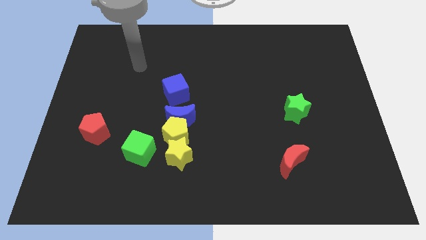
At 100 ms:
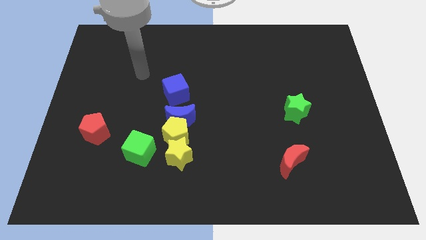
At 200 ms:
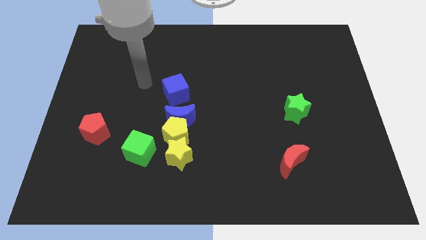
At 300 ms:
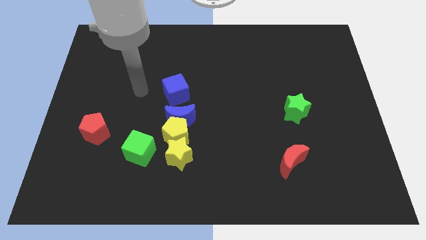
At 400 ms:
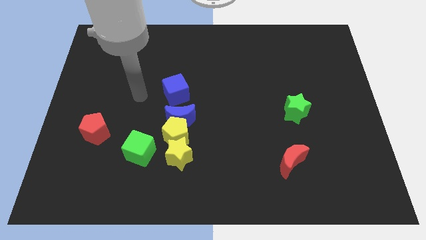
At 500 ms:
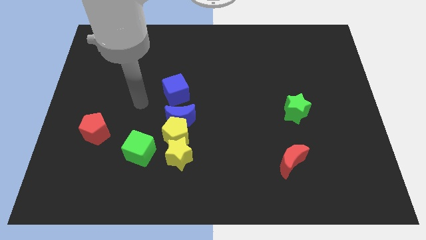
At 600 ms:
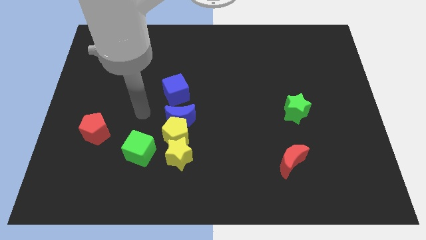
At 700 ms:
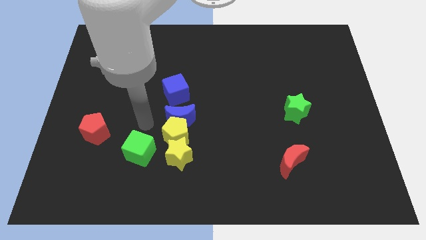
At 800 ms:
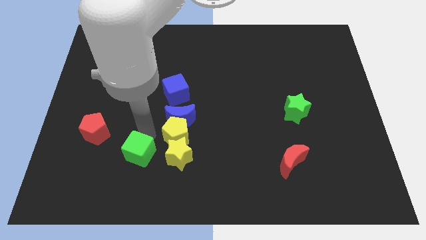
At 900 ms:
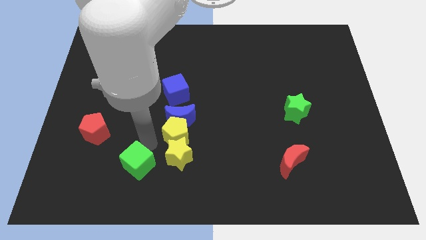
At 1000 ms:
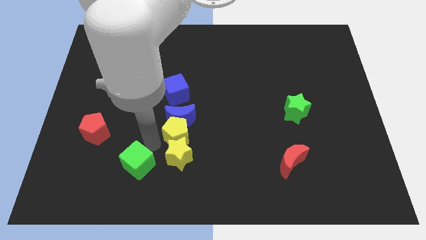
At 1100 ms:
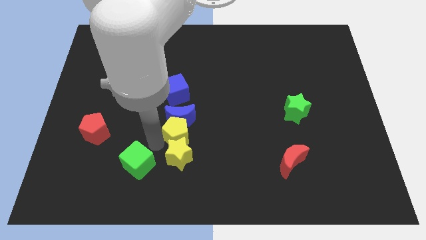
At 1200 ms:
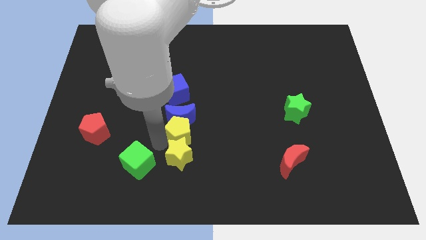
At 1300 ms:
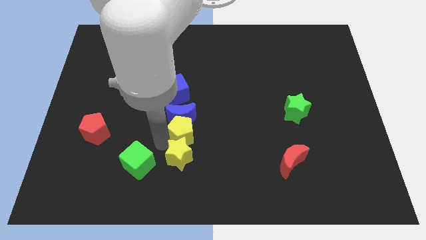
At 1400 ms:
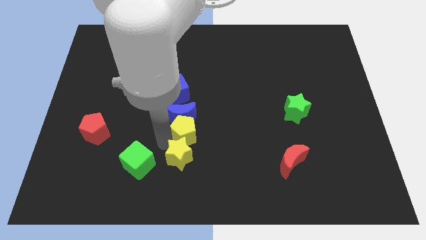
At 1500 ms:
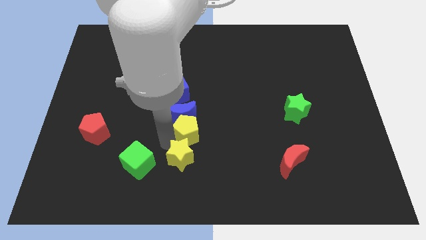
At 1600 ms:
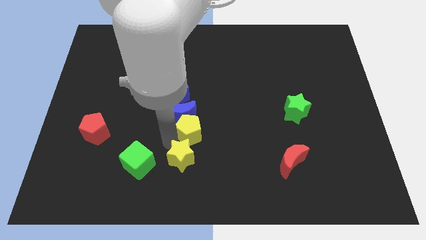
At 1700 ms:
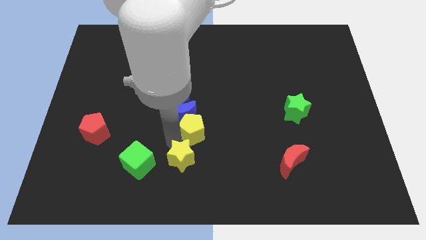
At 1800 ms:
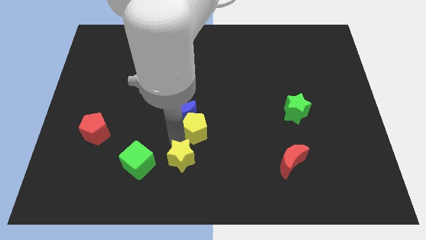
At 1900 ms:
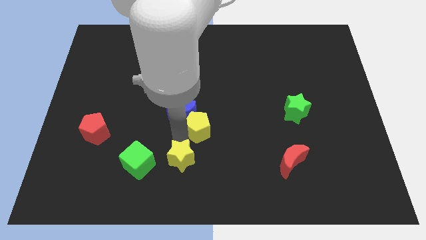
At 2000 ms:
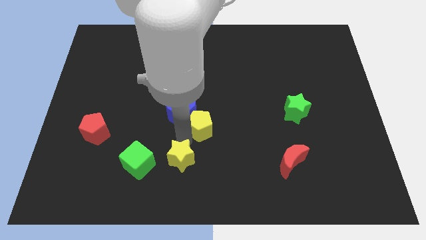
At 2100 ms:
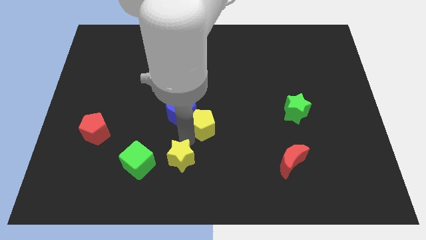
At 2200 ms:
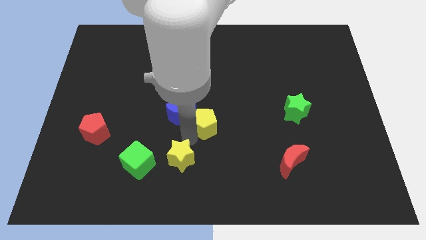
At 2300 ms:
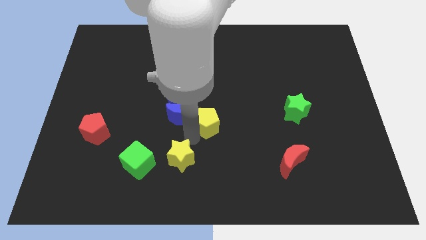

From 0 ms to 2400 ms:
pull the yellow pentagon apart from the group

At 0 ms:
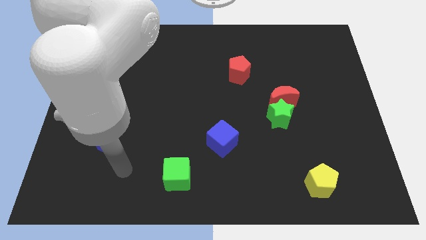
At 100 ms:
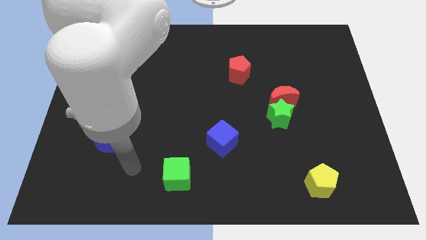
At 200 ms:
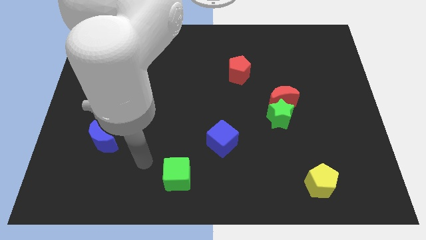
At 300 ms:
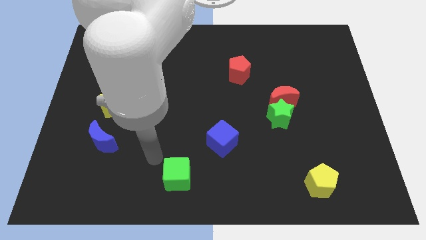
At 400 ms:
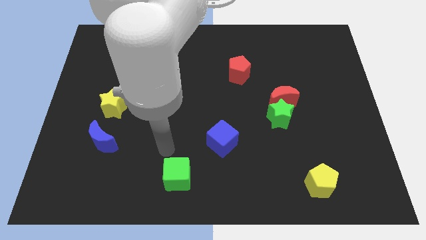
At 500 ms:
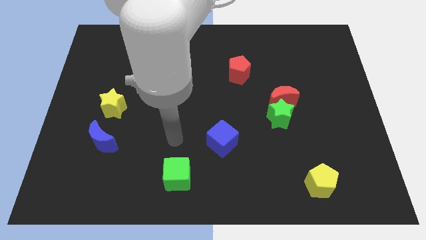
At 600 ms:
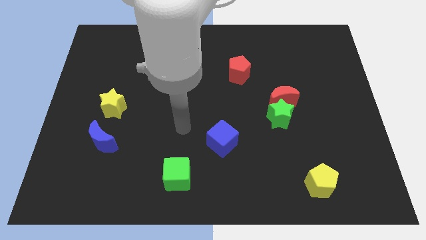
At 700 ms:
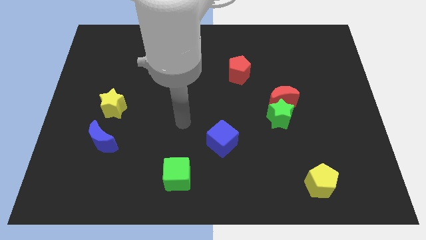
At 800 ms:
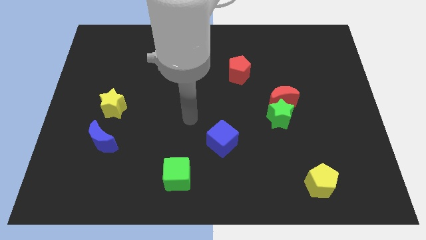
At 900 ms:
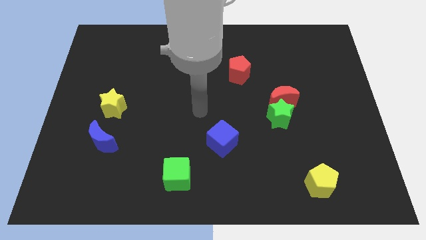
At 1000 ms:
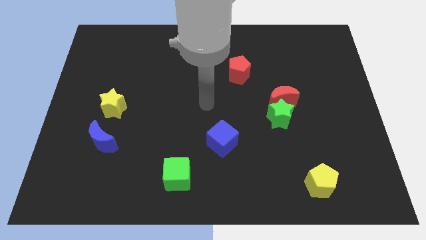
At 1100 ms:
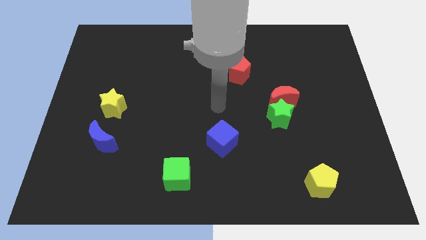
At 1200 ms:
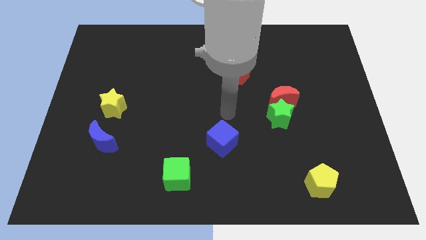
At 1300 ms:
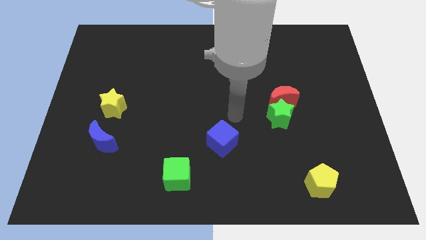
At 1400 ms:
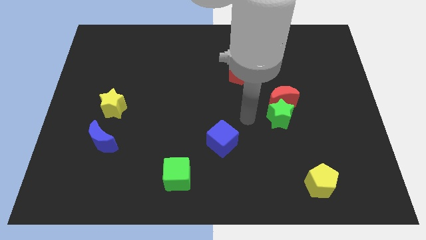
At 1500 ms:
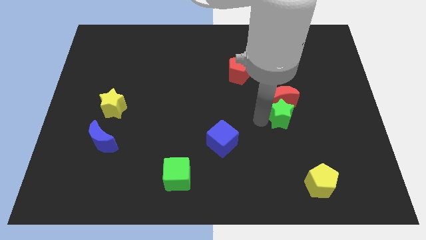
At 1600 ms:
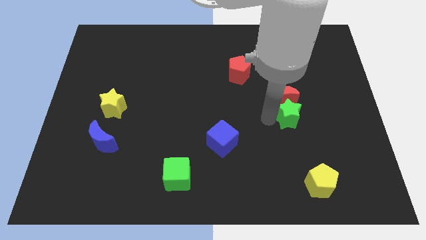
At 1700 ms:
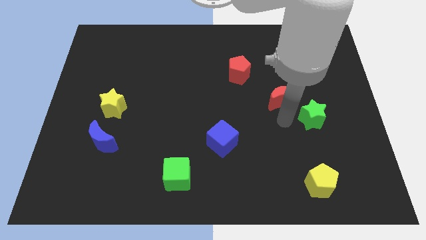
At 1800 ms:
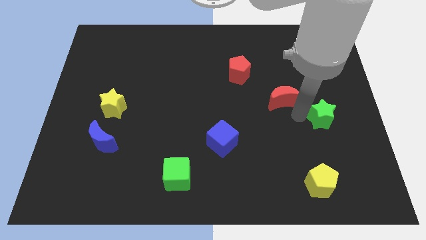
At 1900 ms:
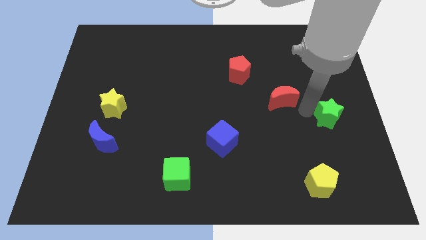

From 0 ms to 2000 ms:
separate the red moon from the green star

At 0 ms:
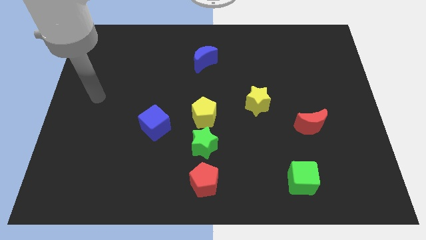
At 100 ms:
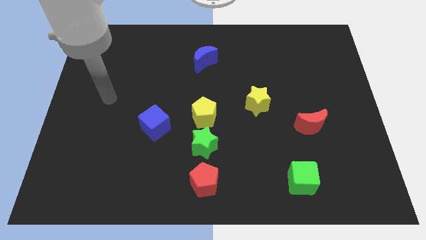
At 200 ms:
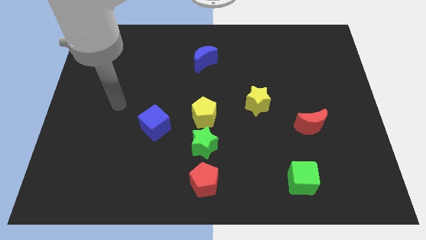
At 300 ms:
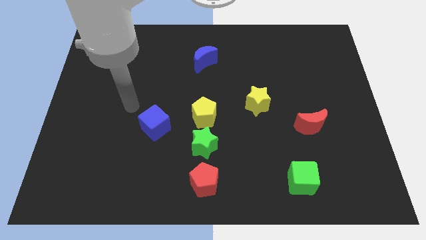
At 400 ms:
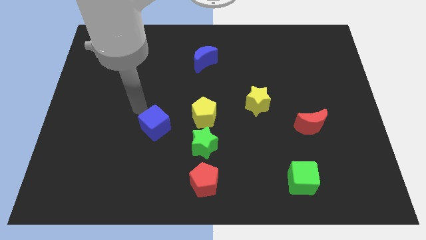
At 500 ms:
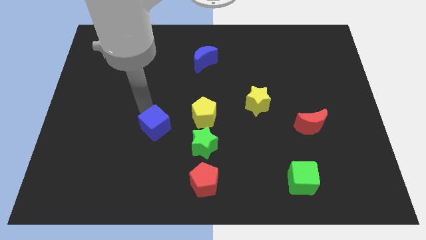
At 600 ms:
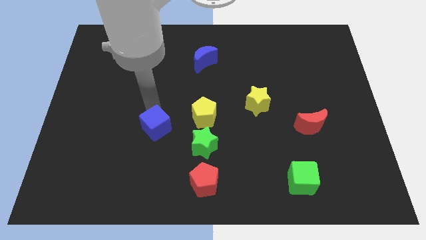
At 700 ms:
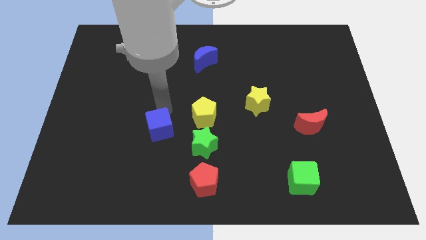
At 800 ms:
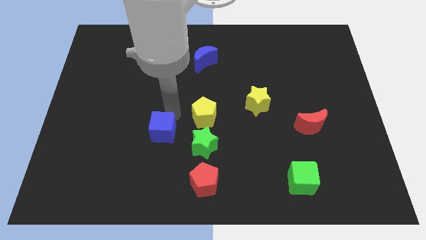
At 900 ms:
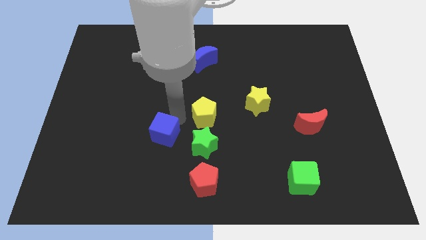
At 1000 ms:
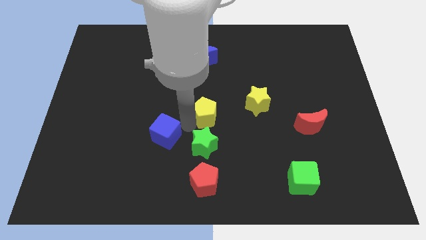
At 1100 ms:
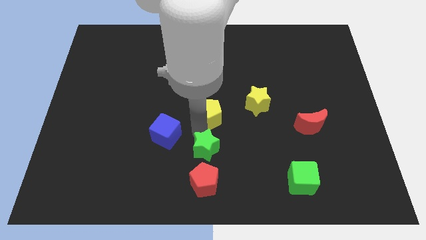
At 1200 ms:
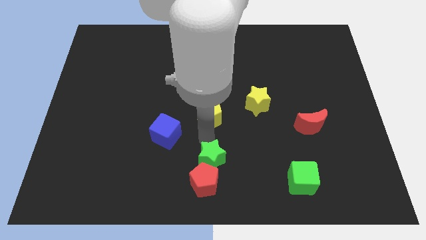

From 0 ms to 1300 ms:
move the yellow pentagon away from the green star

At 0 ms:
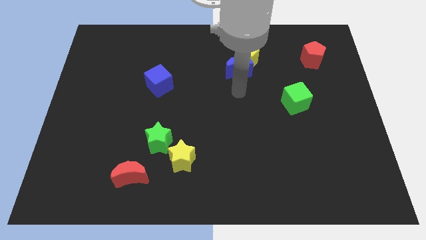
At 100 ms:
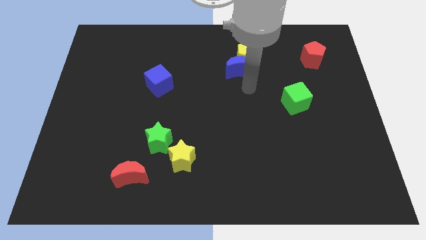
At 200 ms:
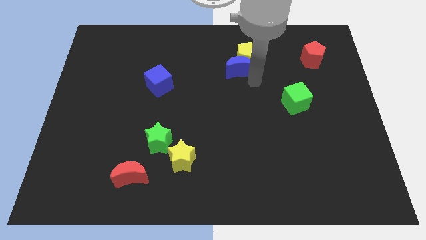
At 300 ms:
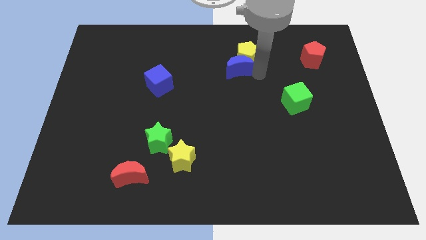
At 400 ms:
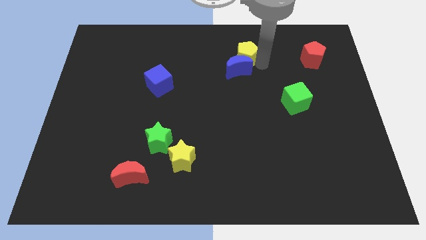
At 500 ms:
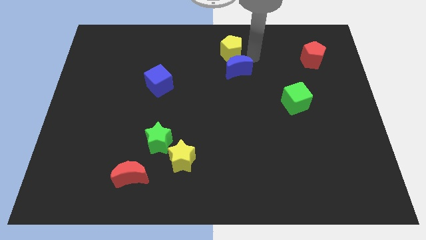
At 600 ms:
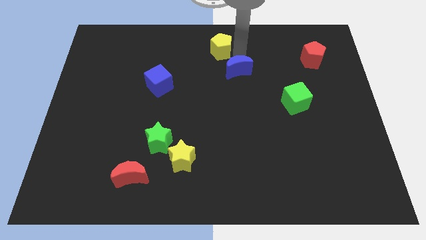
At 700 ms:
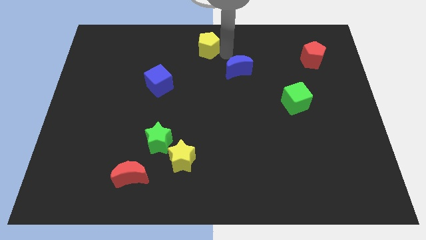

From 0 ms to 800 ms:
pull the blue moon apart from the yellow pentagon

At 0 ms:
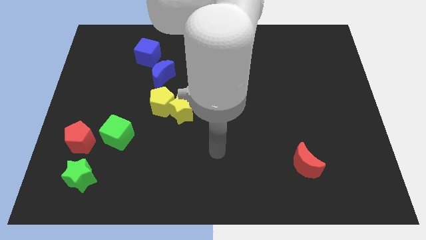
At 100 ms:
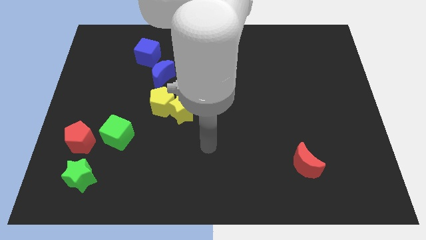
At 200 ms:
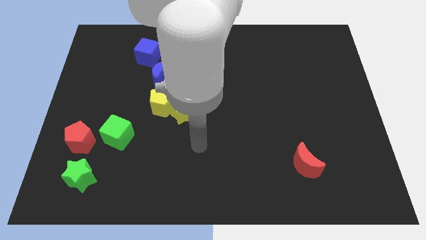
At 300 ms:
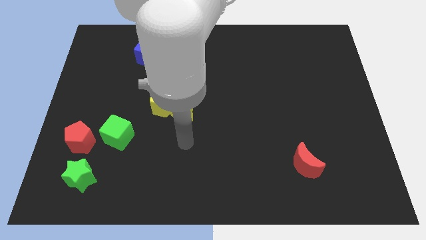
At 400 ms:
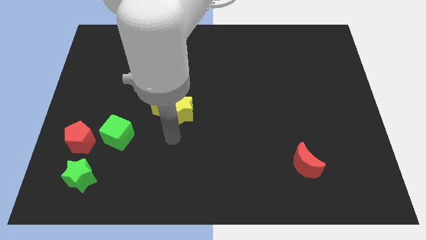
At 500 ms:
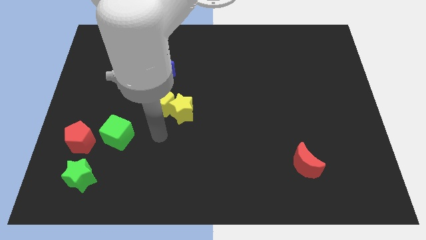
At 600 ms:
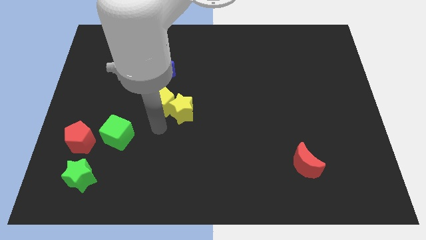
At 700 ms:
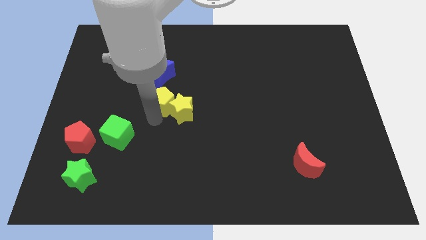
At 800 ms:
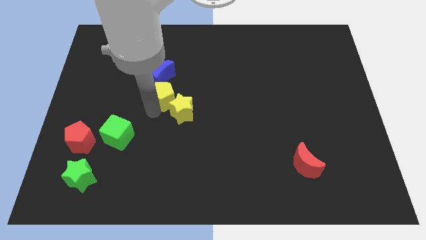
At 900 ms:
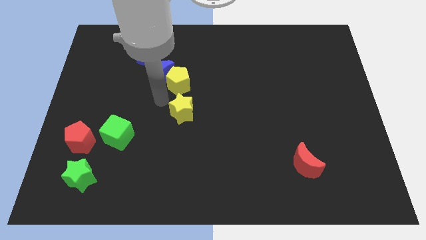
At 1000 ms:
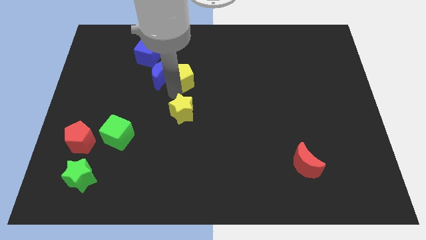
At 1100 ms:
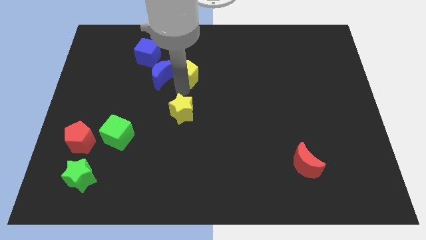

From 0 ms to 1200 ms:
move the yellow star away from the yellow pentagon

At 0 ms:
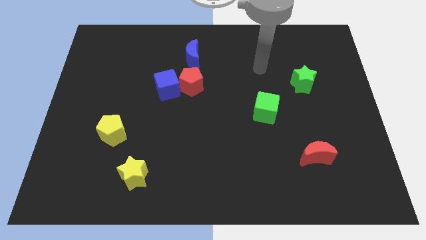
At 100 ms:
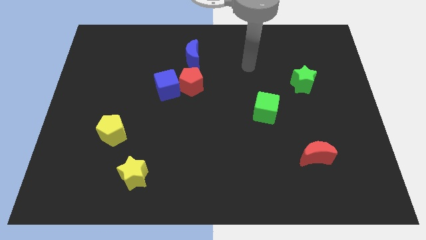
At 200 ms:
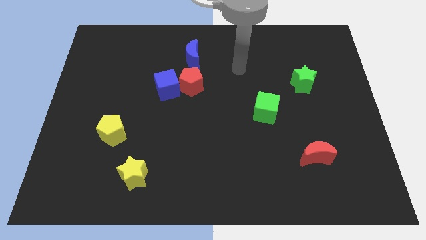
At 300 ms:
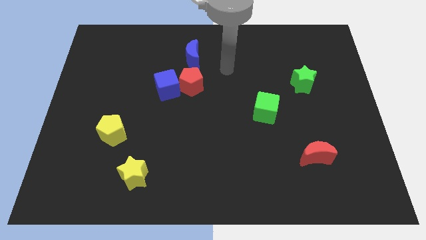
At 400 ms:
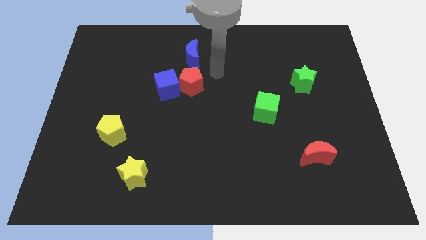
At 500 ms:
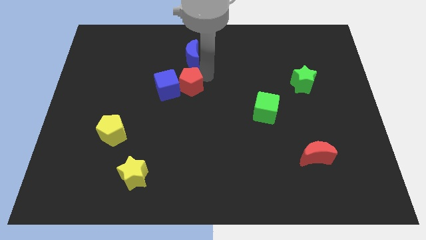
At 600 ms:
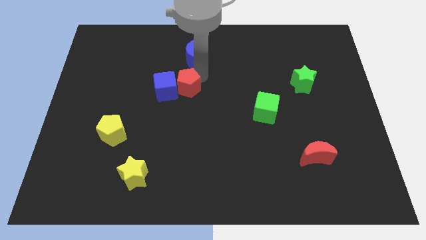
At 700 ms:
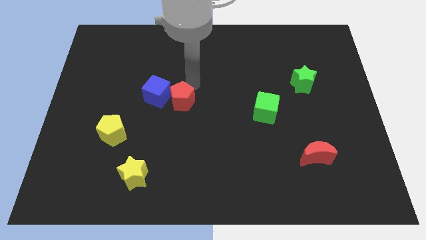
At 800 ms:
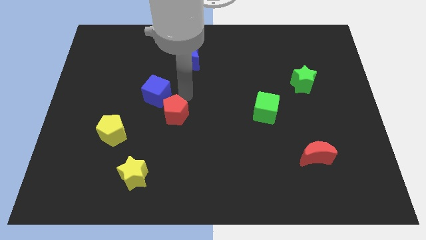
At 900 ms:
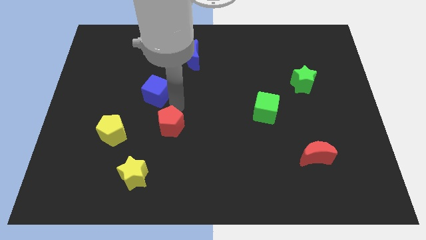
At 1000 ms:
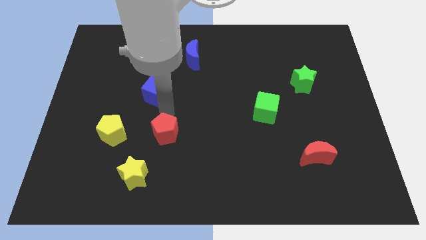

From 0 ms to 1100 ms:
move the blue cube away from the red pentagon

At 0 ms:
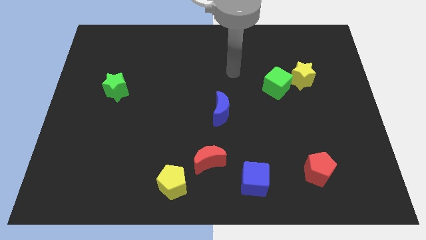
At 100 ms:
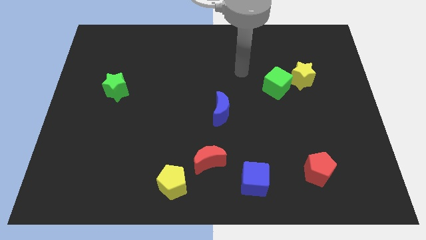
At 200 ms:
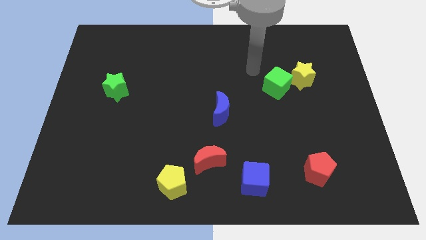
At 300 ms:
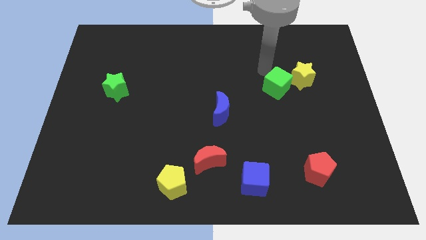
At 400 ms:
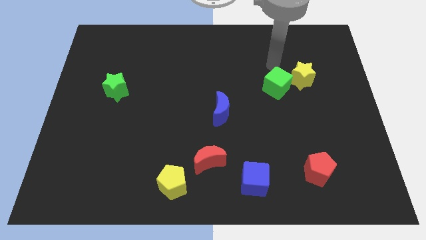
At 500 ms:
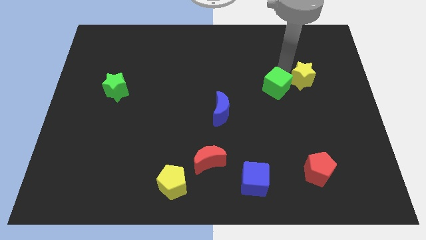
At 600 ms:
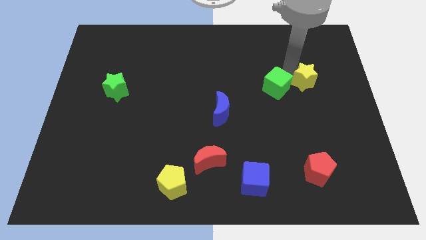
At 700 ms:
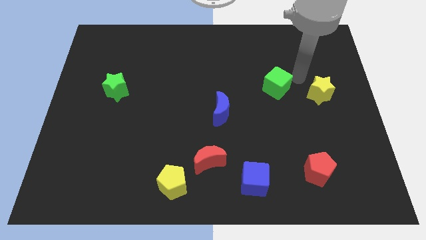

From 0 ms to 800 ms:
pull the green cube apart from the yellow star
